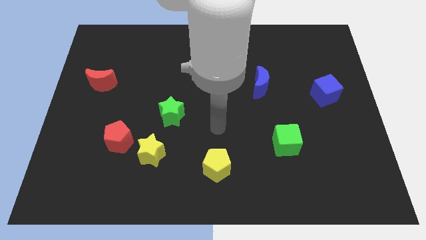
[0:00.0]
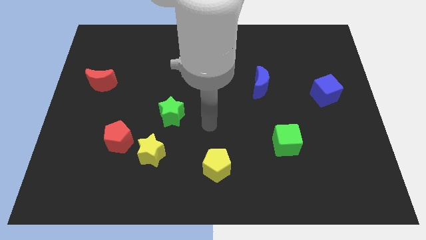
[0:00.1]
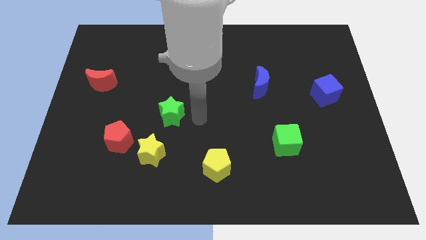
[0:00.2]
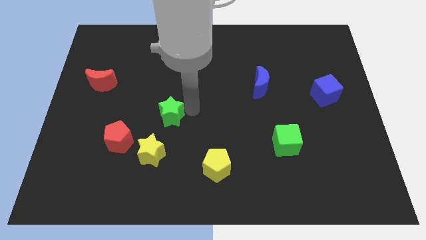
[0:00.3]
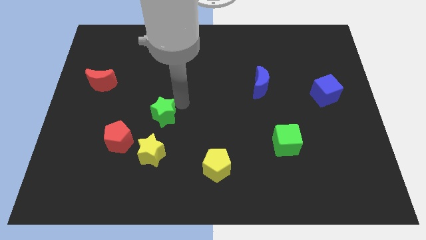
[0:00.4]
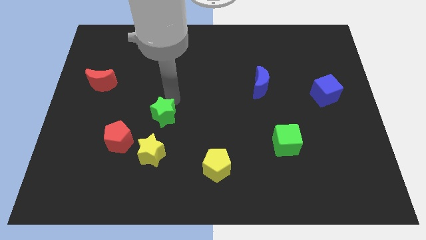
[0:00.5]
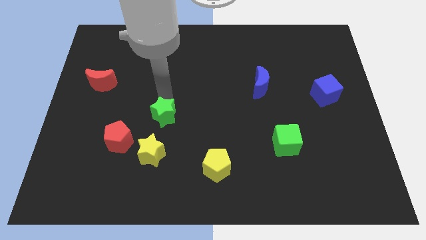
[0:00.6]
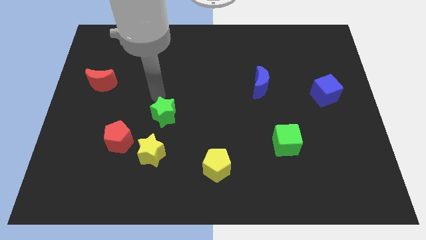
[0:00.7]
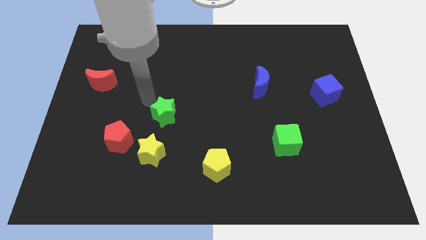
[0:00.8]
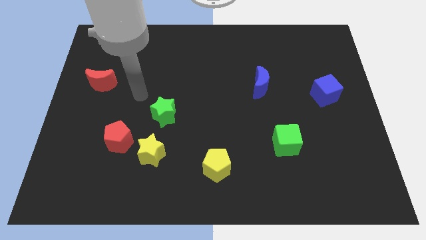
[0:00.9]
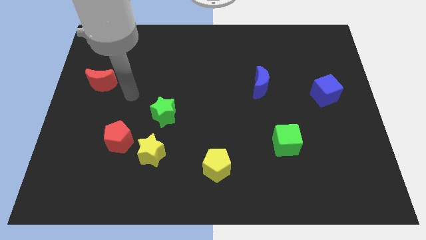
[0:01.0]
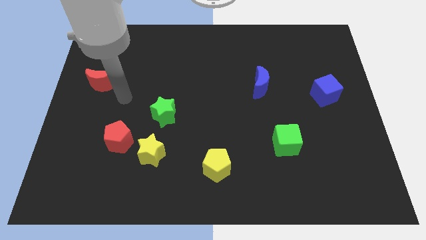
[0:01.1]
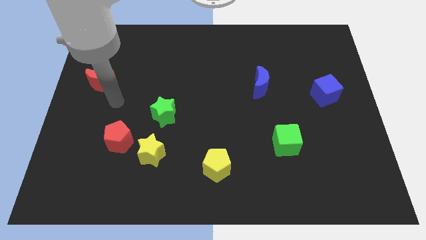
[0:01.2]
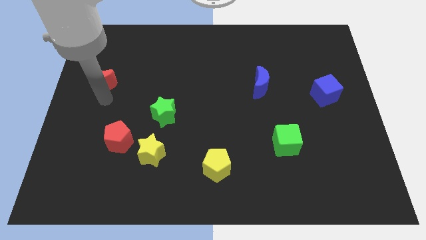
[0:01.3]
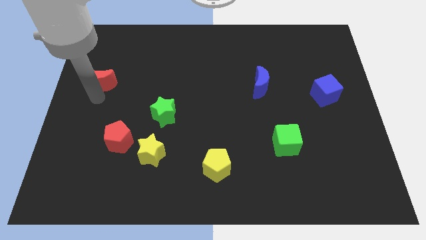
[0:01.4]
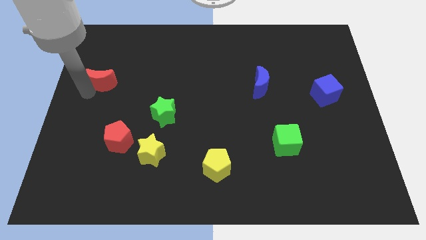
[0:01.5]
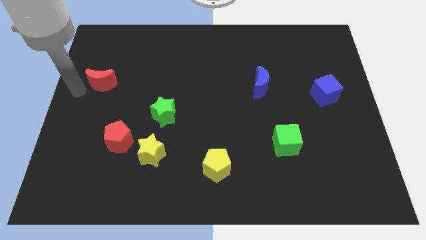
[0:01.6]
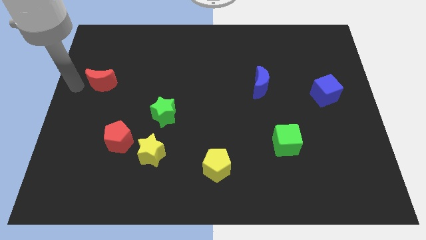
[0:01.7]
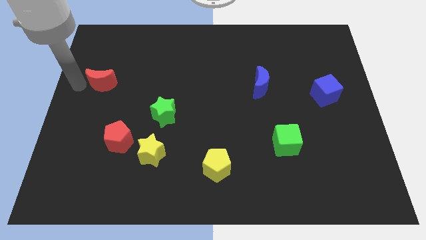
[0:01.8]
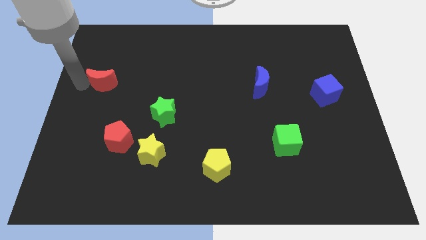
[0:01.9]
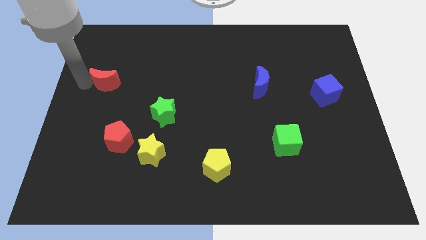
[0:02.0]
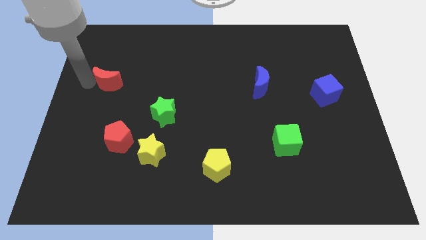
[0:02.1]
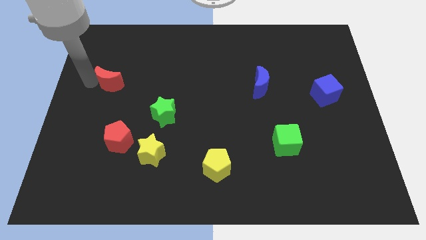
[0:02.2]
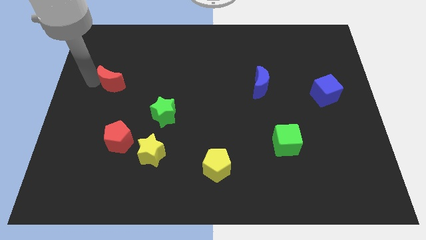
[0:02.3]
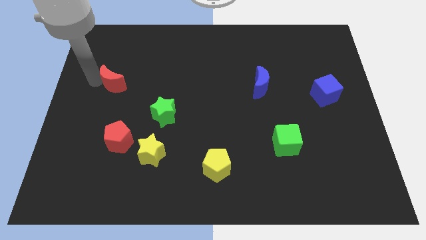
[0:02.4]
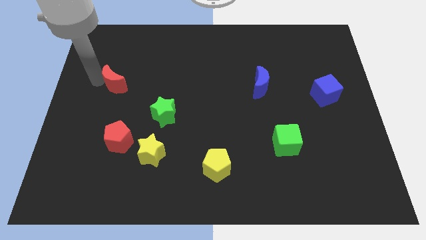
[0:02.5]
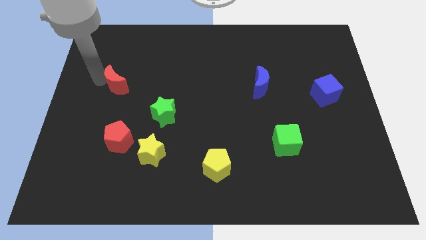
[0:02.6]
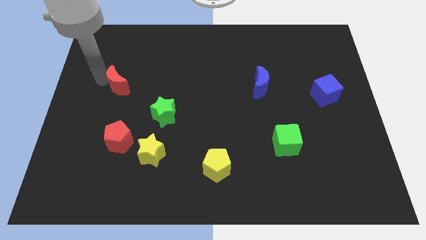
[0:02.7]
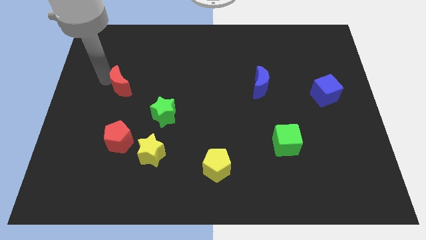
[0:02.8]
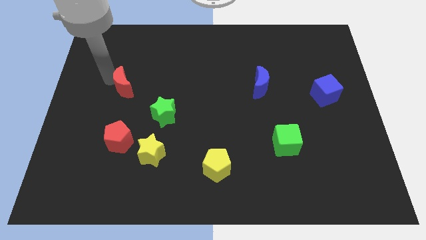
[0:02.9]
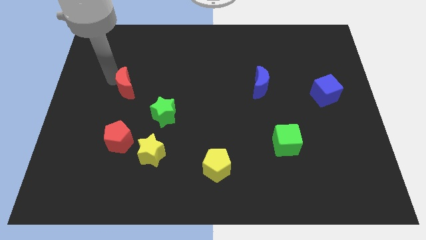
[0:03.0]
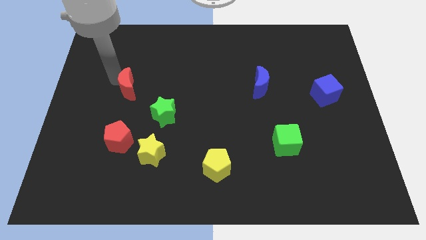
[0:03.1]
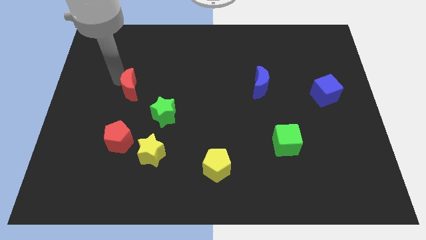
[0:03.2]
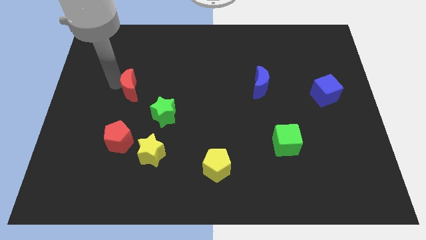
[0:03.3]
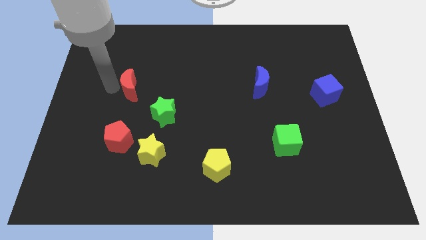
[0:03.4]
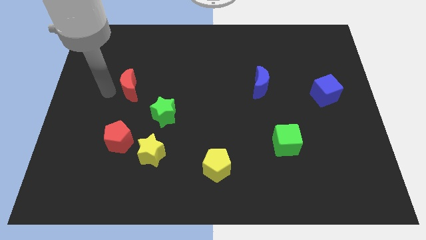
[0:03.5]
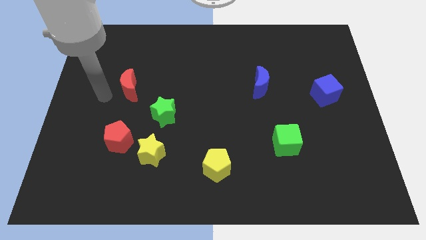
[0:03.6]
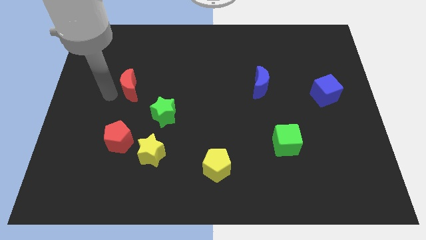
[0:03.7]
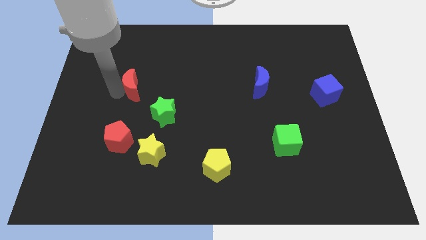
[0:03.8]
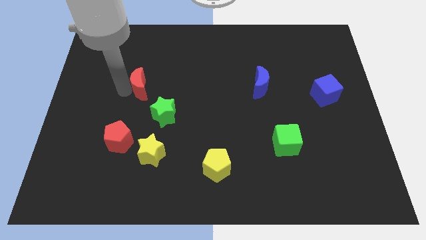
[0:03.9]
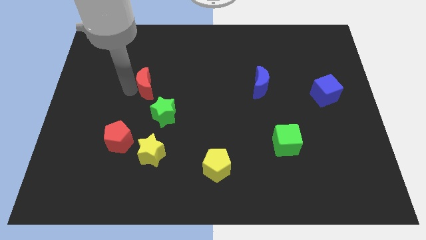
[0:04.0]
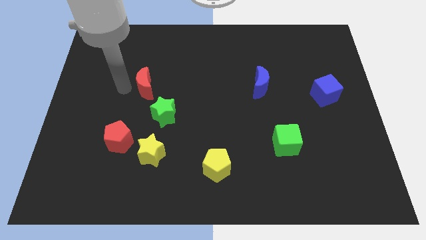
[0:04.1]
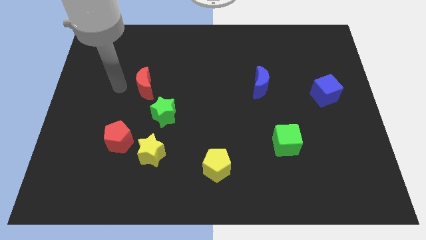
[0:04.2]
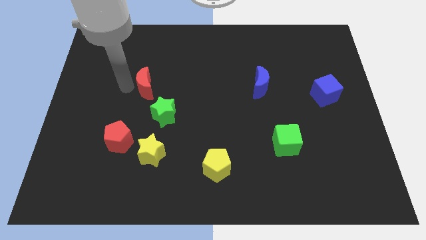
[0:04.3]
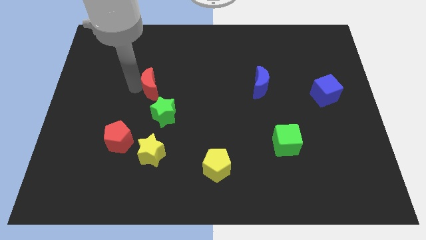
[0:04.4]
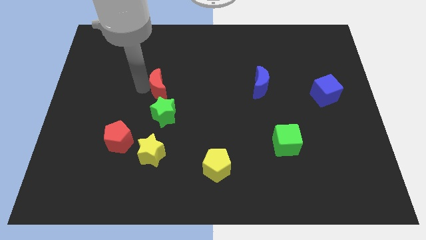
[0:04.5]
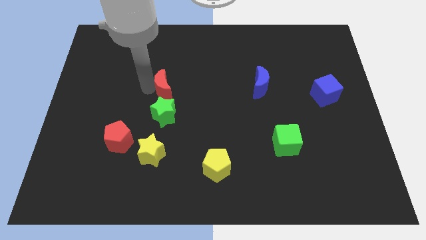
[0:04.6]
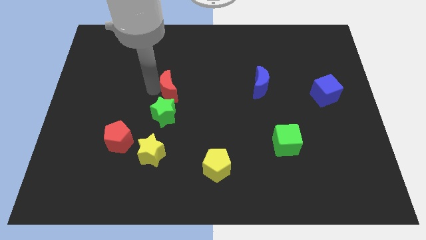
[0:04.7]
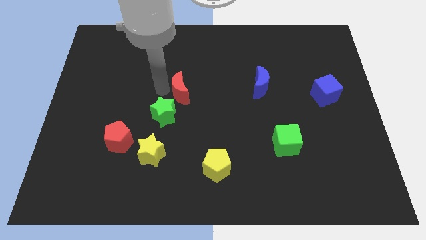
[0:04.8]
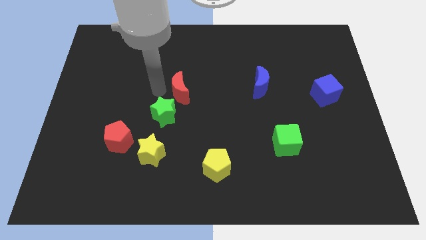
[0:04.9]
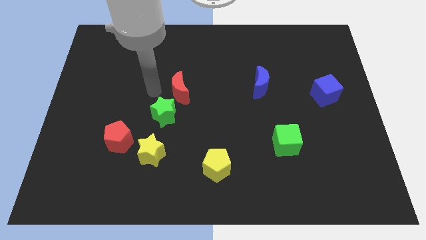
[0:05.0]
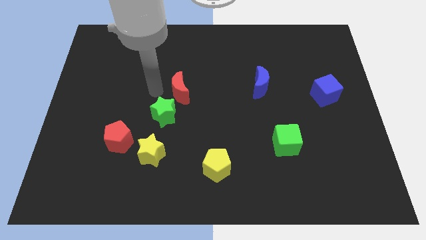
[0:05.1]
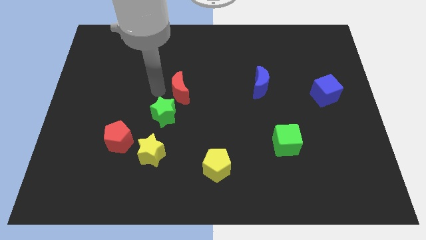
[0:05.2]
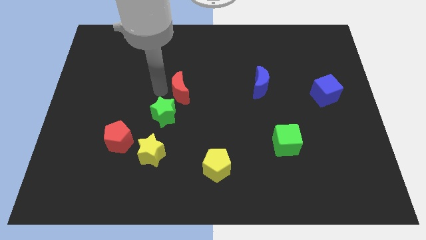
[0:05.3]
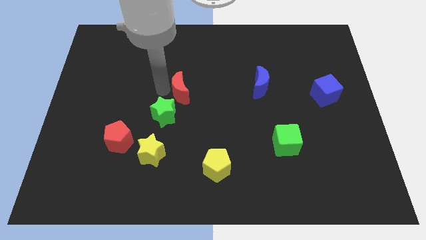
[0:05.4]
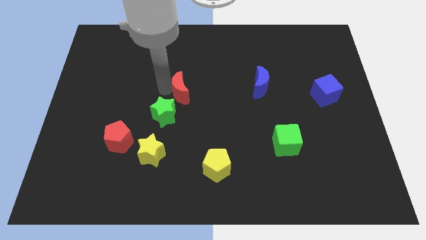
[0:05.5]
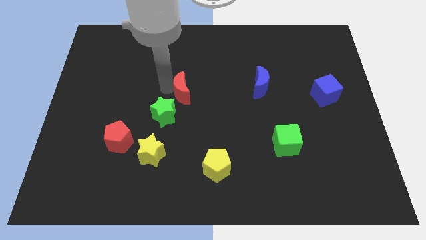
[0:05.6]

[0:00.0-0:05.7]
move the red moon right
